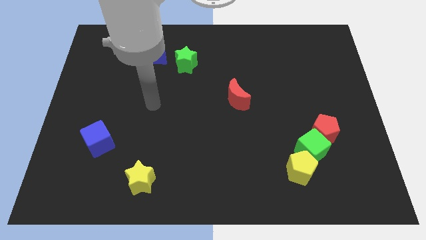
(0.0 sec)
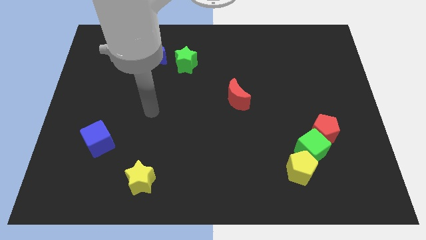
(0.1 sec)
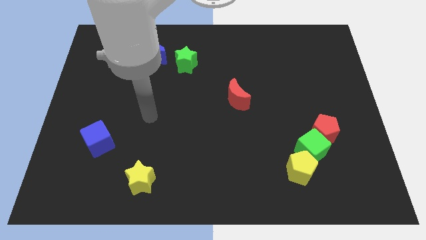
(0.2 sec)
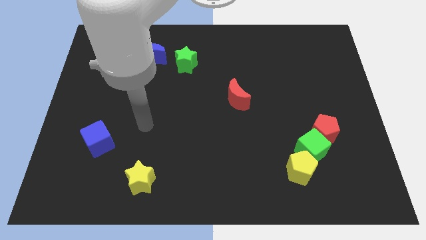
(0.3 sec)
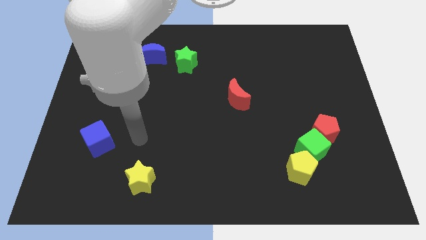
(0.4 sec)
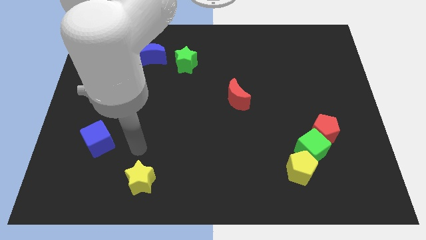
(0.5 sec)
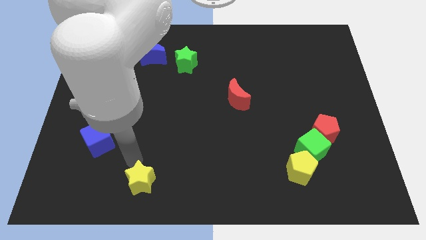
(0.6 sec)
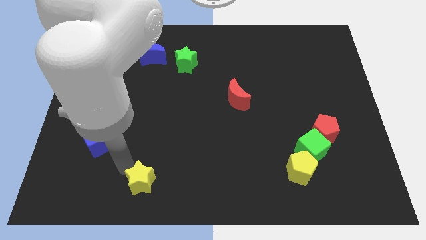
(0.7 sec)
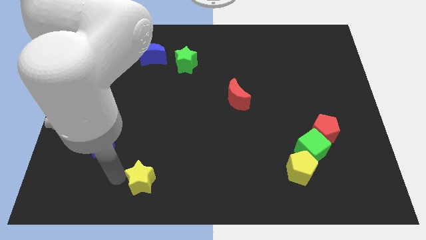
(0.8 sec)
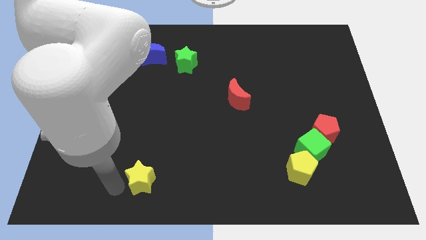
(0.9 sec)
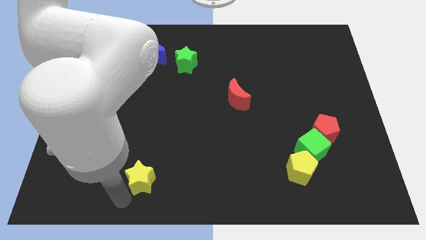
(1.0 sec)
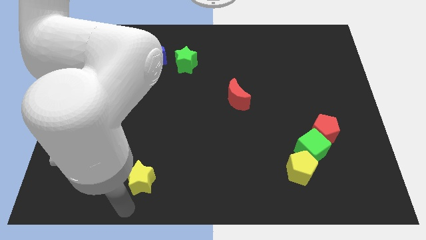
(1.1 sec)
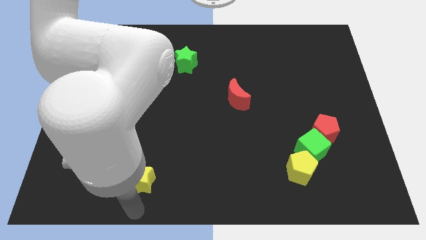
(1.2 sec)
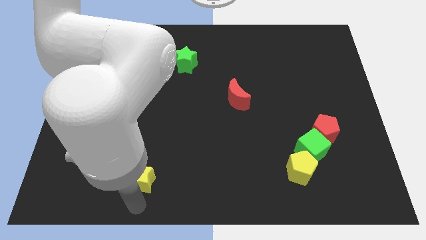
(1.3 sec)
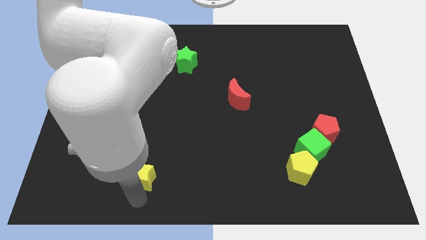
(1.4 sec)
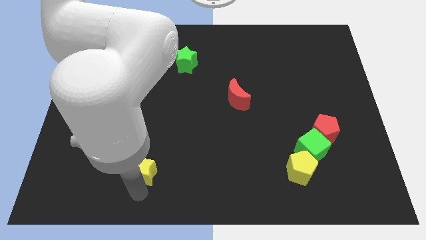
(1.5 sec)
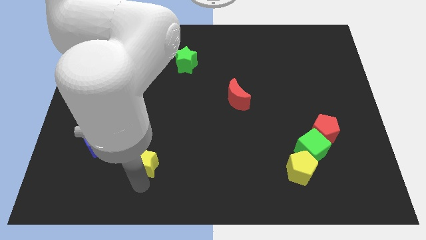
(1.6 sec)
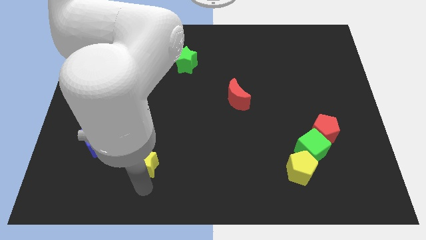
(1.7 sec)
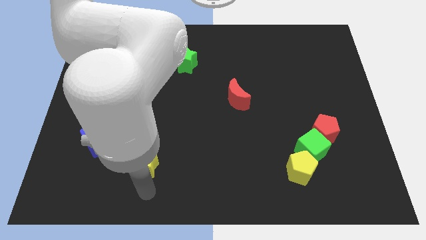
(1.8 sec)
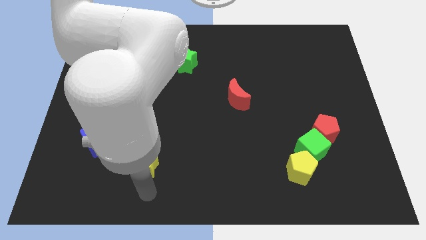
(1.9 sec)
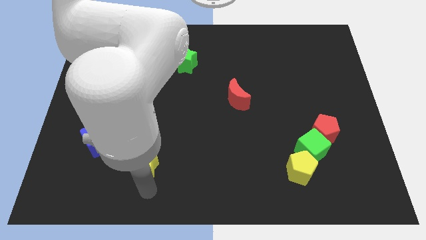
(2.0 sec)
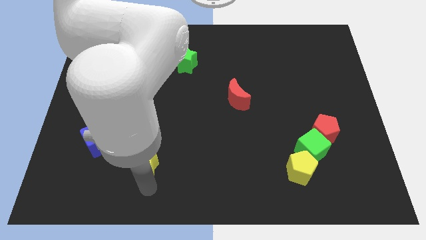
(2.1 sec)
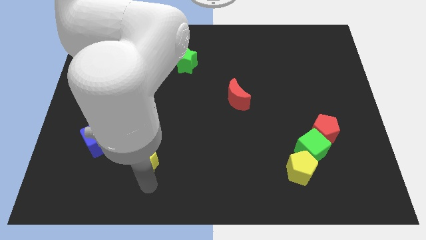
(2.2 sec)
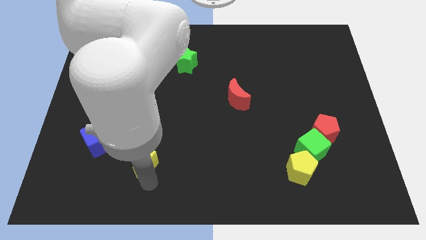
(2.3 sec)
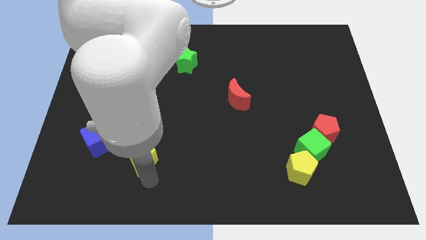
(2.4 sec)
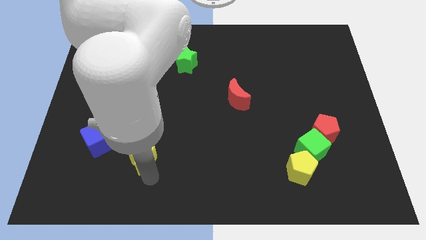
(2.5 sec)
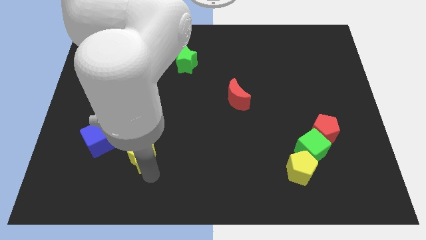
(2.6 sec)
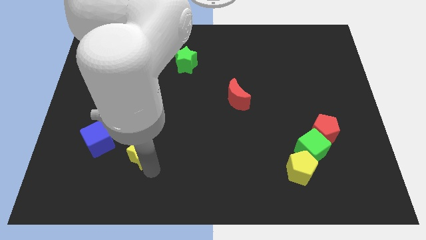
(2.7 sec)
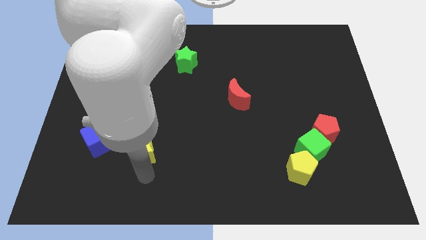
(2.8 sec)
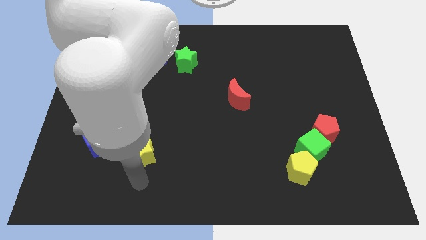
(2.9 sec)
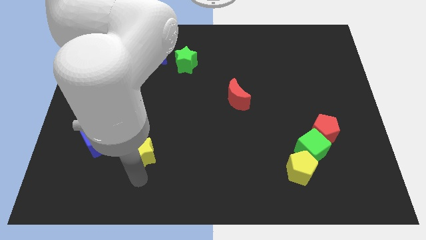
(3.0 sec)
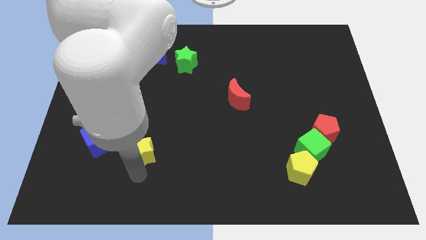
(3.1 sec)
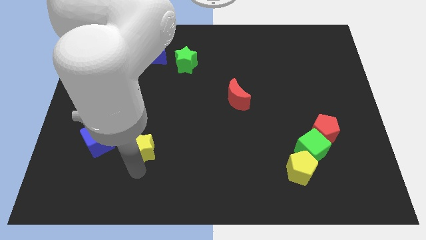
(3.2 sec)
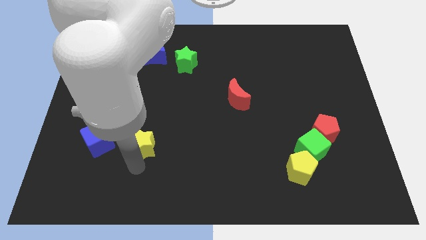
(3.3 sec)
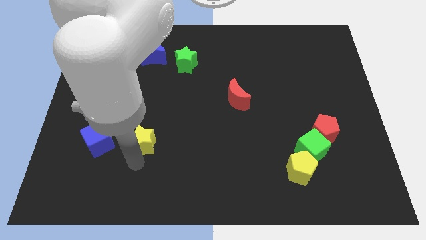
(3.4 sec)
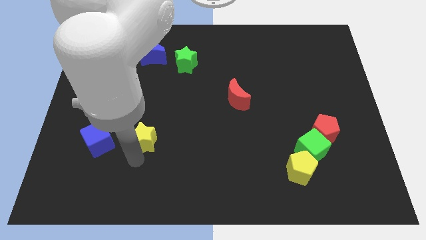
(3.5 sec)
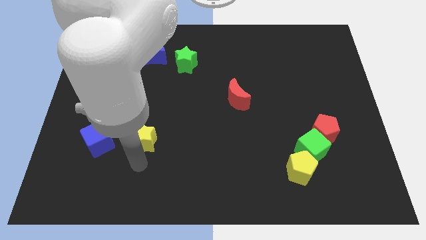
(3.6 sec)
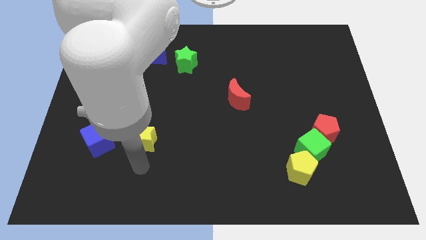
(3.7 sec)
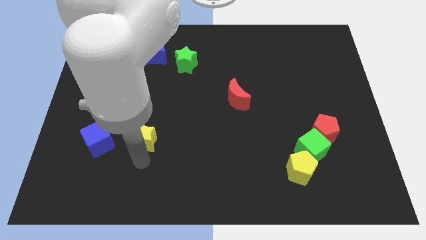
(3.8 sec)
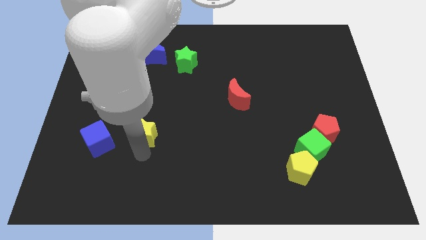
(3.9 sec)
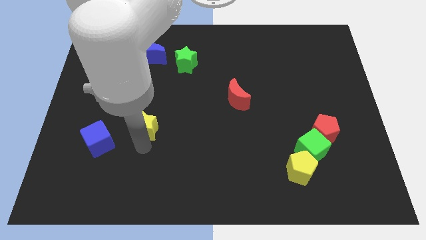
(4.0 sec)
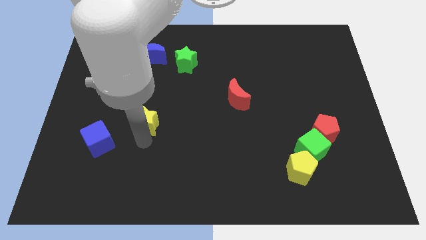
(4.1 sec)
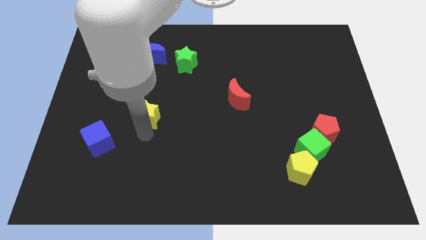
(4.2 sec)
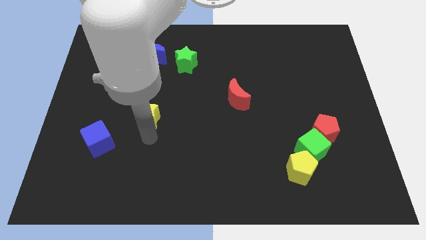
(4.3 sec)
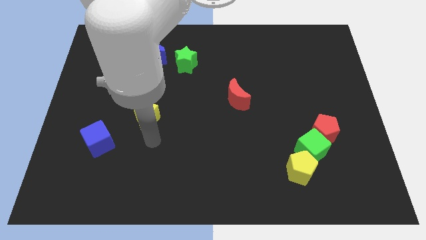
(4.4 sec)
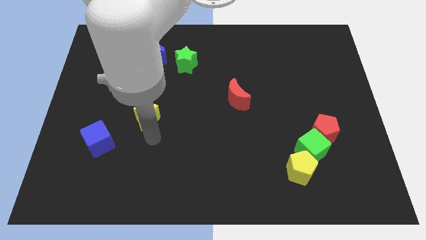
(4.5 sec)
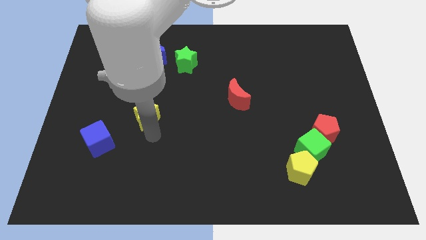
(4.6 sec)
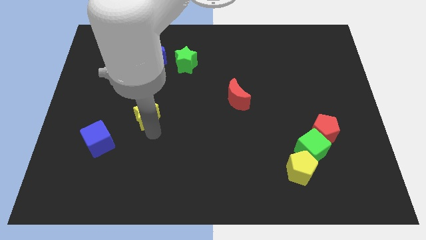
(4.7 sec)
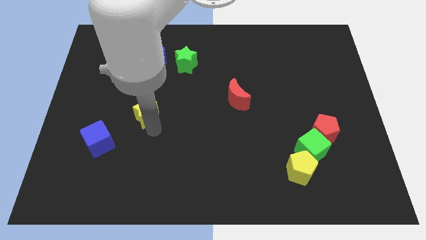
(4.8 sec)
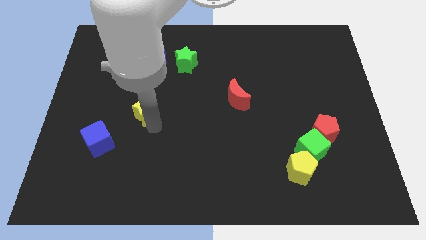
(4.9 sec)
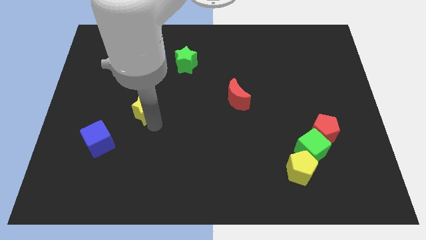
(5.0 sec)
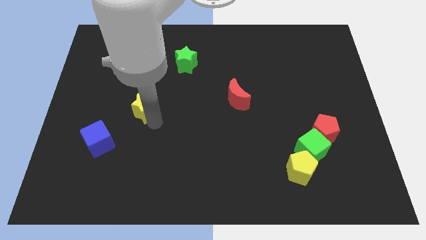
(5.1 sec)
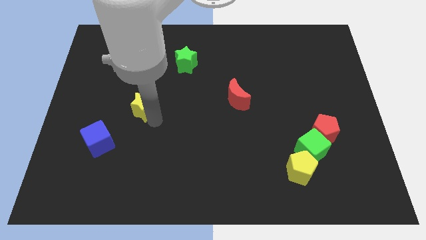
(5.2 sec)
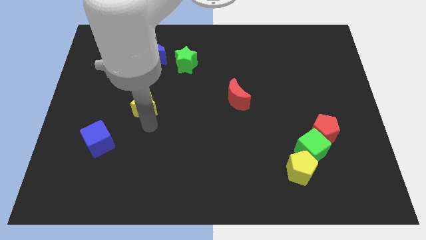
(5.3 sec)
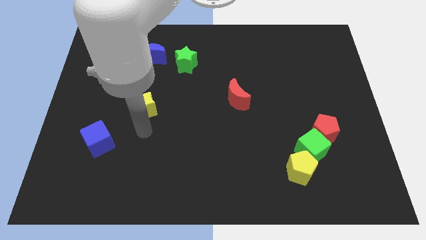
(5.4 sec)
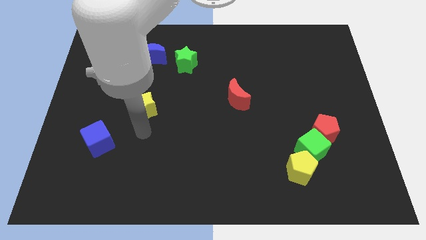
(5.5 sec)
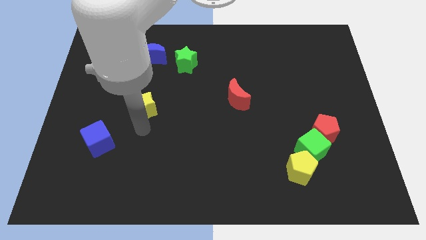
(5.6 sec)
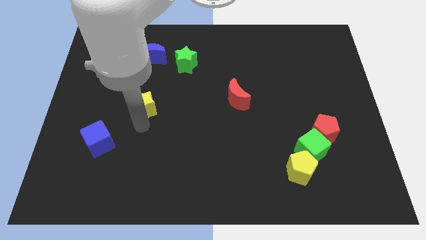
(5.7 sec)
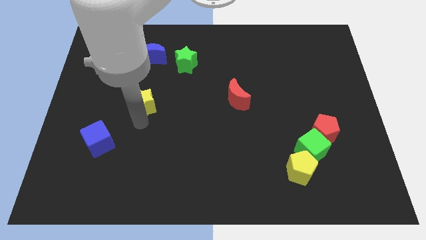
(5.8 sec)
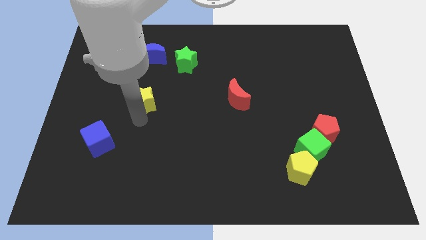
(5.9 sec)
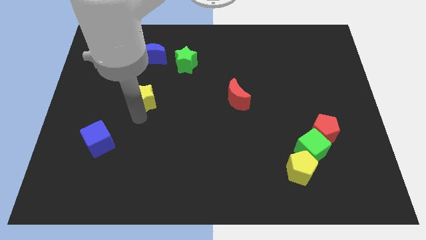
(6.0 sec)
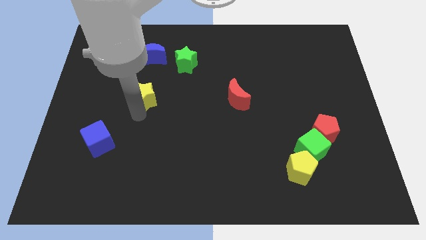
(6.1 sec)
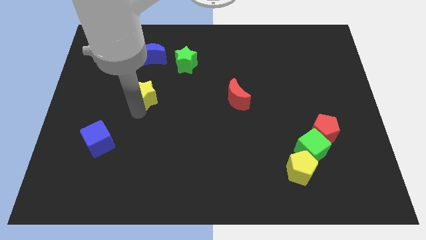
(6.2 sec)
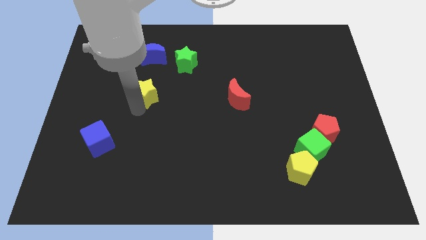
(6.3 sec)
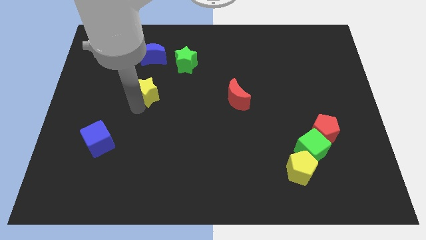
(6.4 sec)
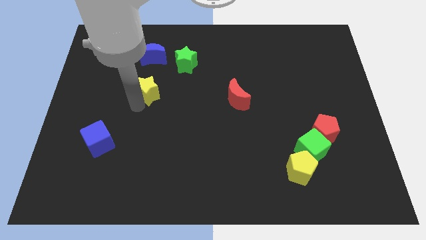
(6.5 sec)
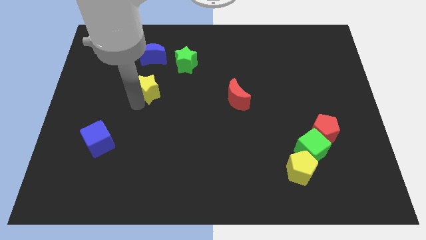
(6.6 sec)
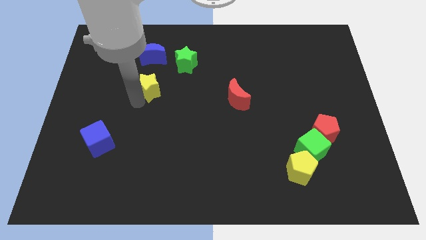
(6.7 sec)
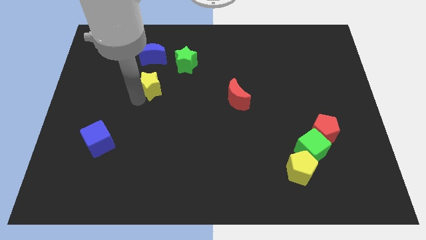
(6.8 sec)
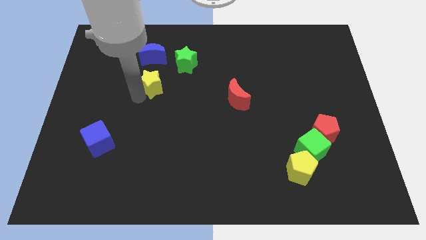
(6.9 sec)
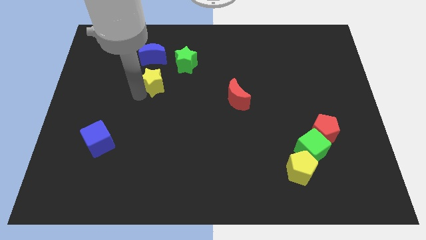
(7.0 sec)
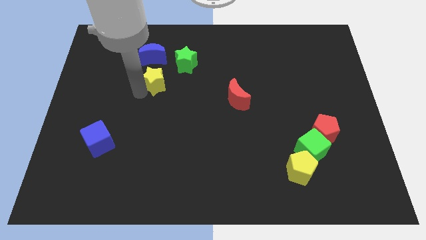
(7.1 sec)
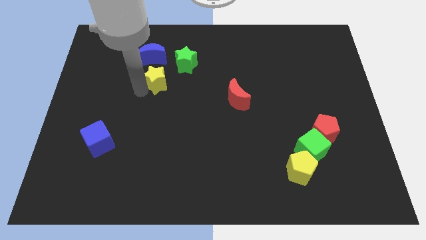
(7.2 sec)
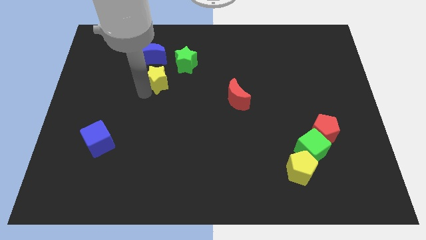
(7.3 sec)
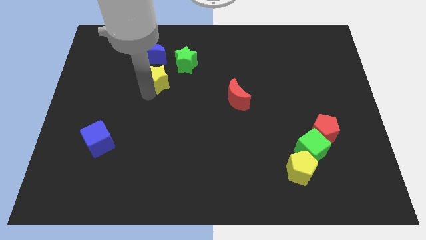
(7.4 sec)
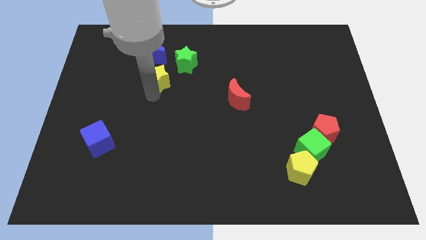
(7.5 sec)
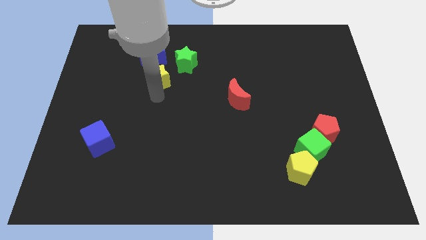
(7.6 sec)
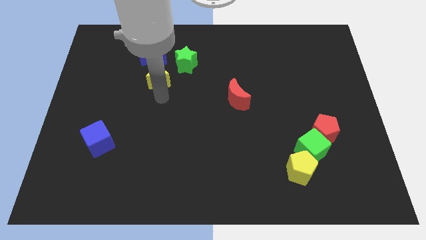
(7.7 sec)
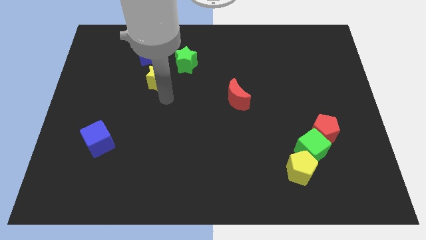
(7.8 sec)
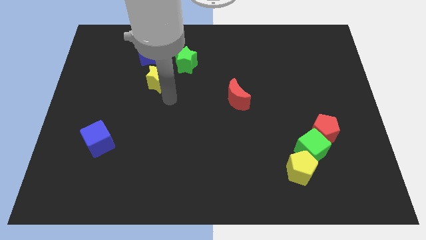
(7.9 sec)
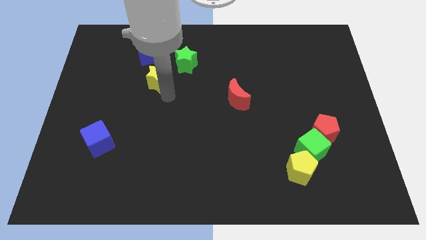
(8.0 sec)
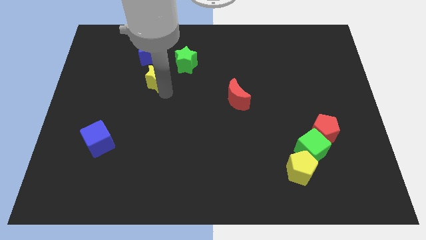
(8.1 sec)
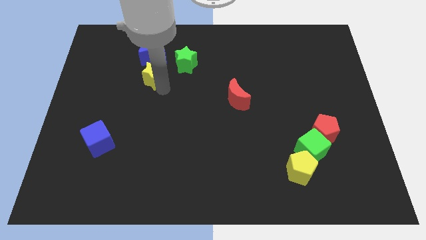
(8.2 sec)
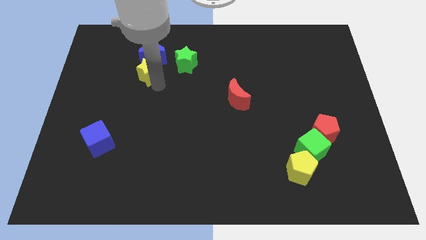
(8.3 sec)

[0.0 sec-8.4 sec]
move the yellow star close to the blue moon
